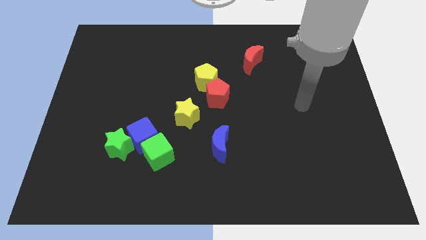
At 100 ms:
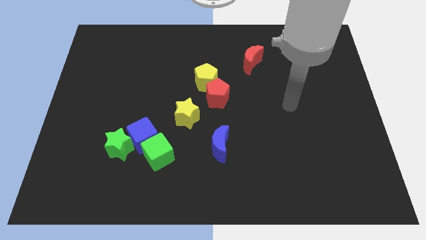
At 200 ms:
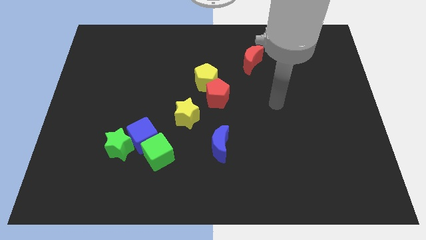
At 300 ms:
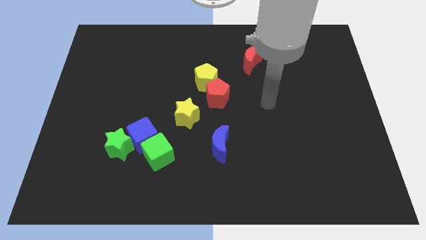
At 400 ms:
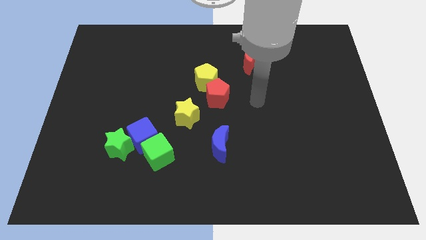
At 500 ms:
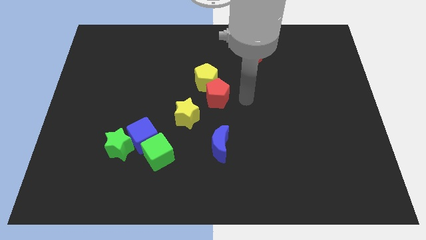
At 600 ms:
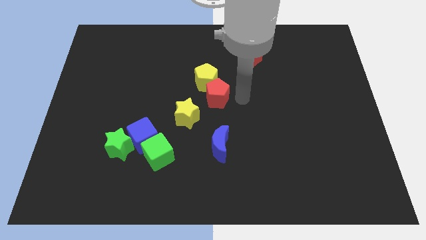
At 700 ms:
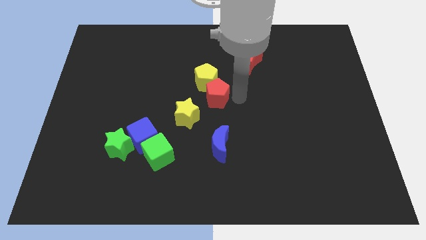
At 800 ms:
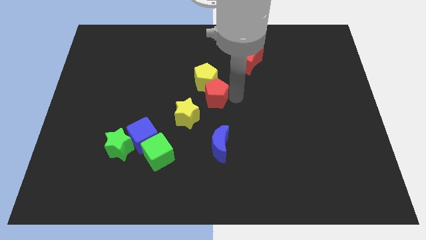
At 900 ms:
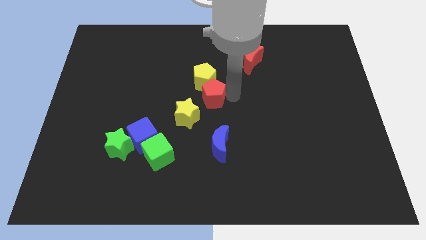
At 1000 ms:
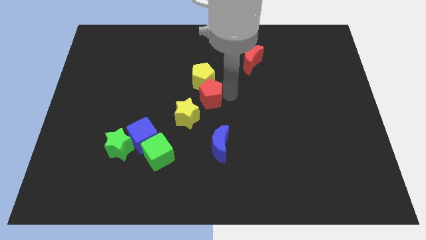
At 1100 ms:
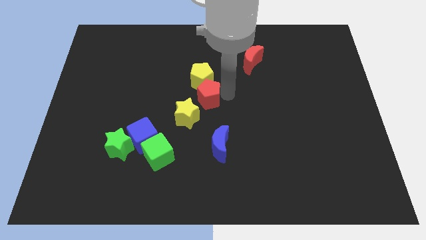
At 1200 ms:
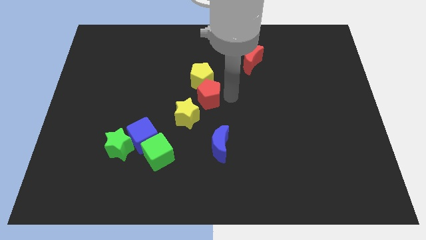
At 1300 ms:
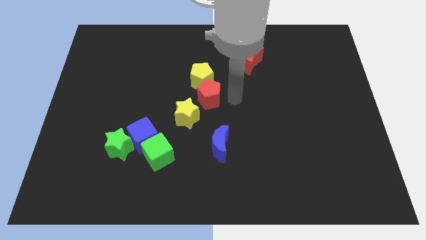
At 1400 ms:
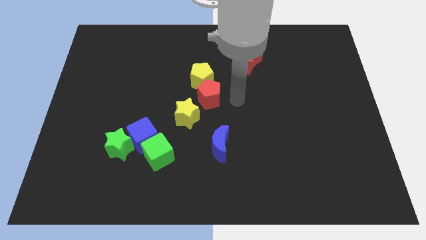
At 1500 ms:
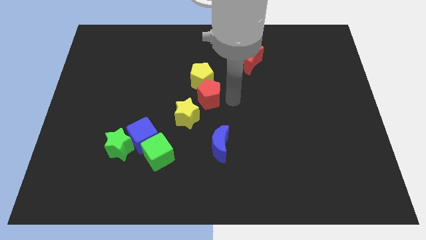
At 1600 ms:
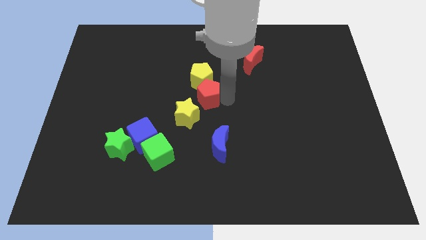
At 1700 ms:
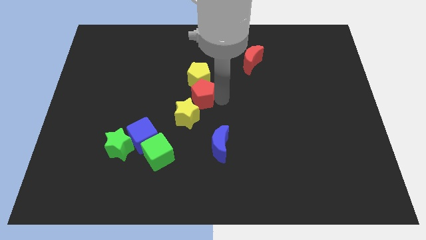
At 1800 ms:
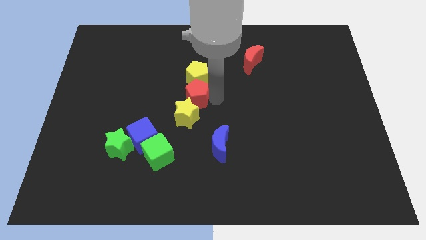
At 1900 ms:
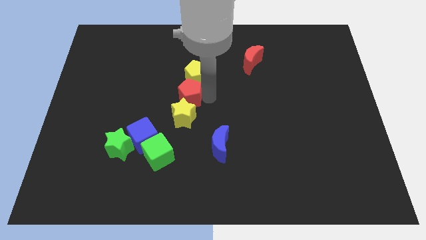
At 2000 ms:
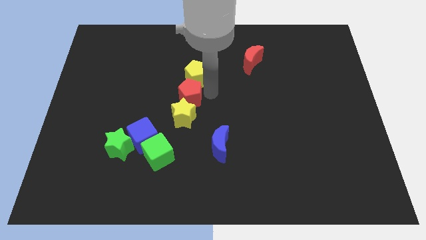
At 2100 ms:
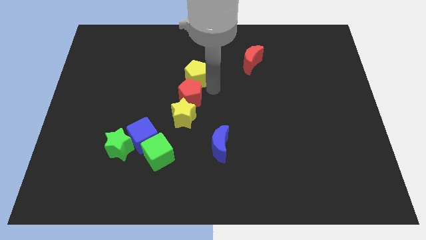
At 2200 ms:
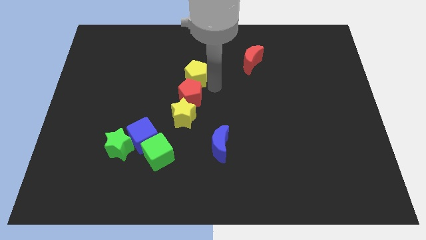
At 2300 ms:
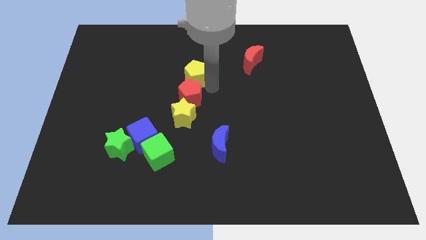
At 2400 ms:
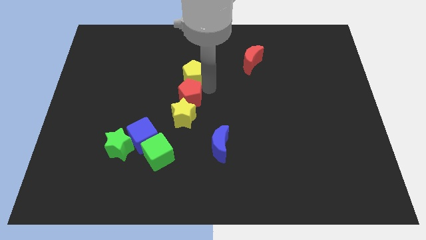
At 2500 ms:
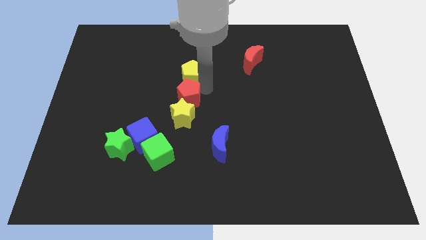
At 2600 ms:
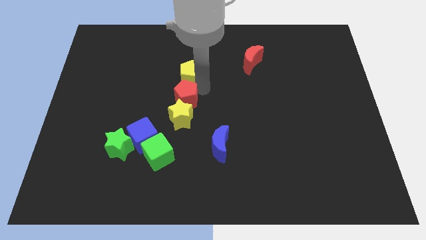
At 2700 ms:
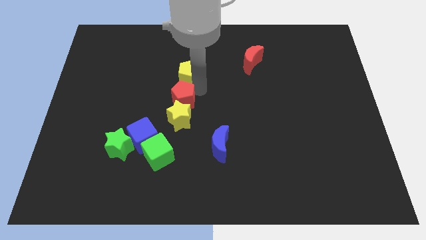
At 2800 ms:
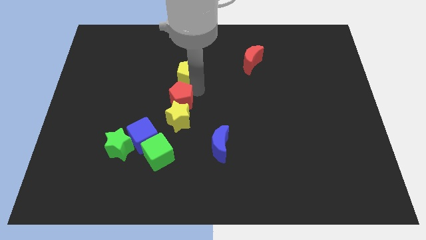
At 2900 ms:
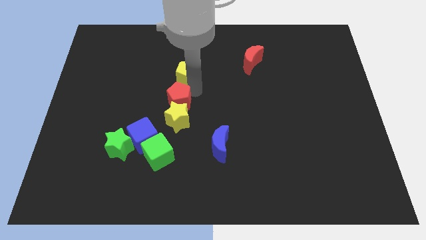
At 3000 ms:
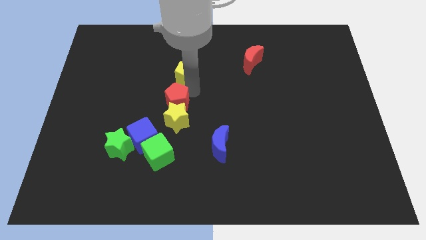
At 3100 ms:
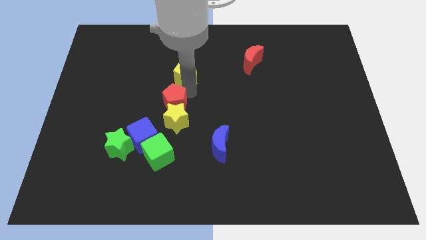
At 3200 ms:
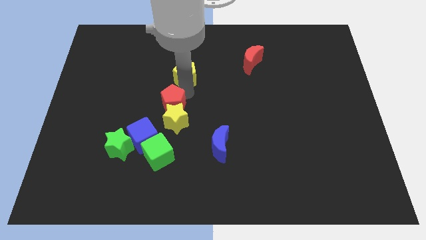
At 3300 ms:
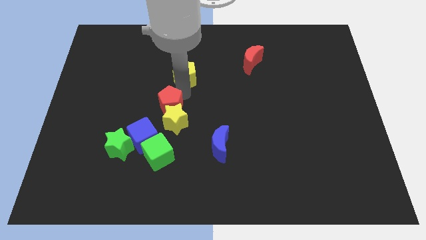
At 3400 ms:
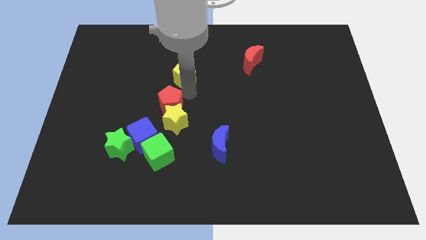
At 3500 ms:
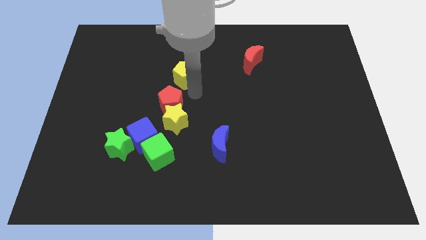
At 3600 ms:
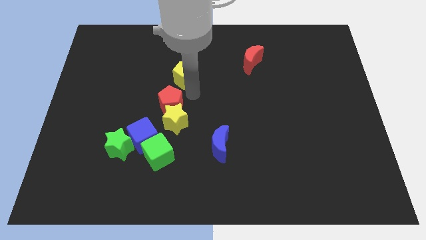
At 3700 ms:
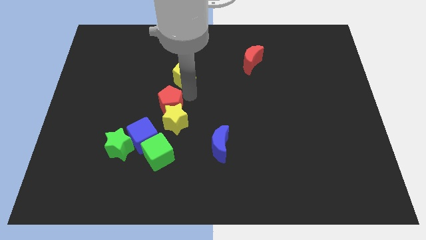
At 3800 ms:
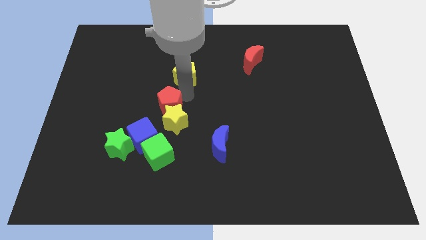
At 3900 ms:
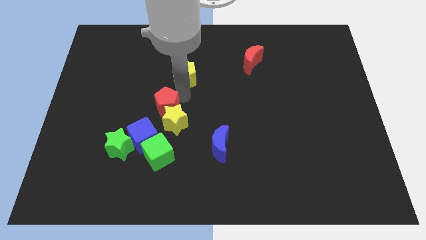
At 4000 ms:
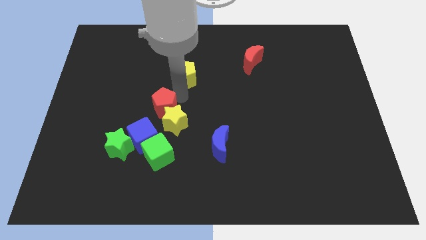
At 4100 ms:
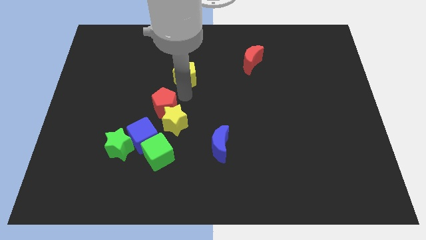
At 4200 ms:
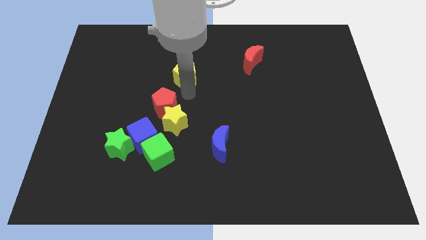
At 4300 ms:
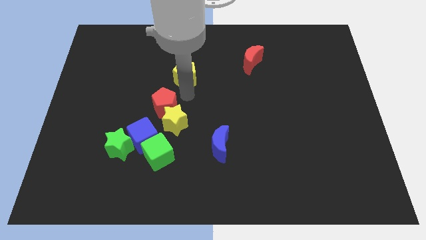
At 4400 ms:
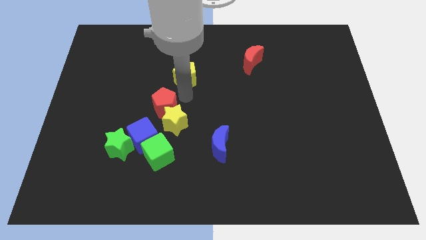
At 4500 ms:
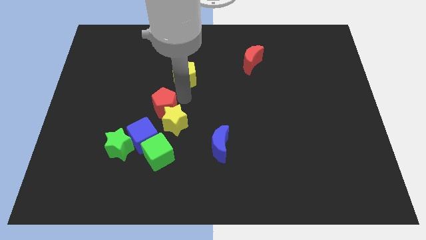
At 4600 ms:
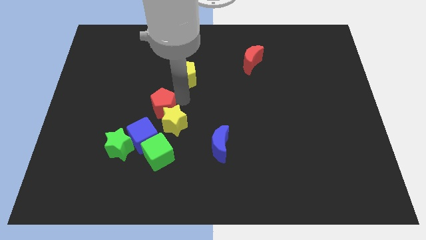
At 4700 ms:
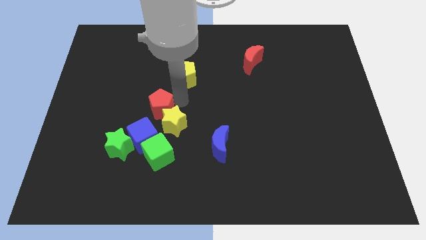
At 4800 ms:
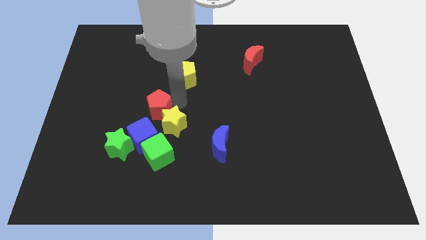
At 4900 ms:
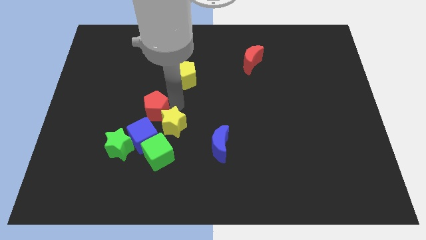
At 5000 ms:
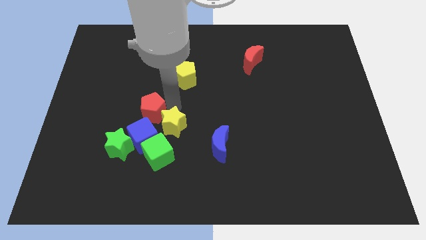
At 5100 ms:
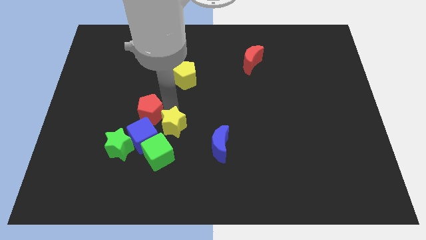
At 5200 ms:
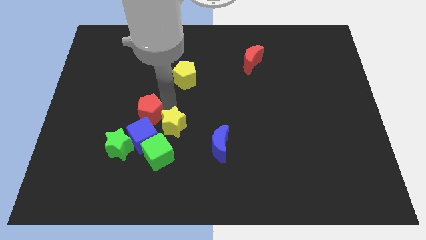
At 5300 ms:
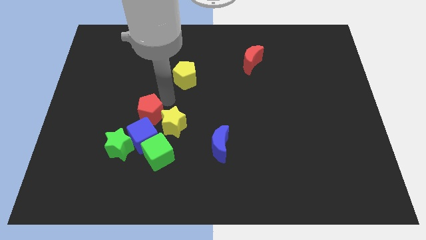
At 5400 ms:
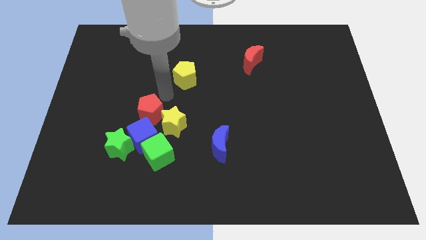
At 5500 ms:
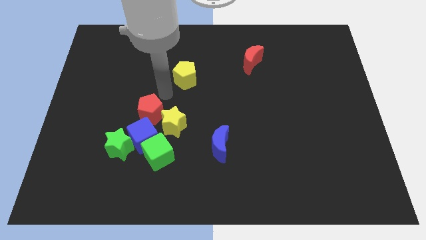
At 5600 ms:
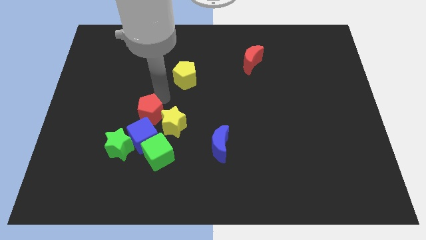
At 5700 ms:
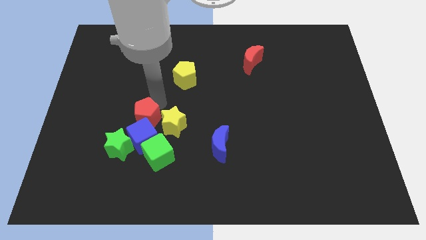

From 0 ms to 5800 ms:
slide the red pentagon to the top left of the green cube

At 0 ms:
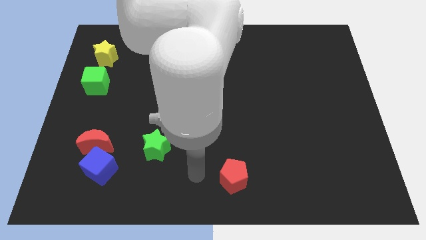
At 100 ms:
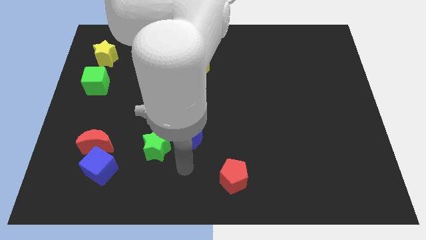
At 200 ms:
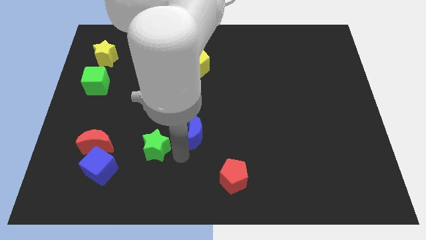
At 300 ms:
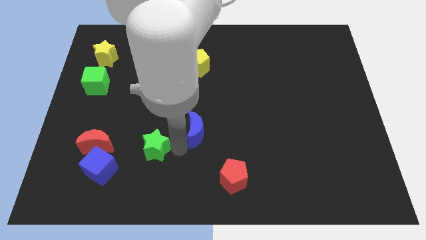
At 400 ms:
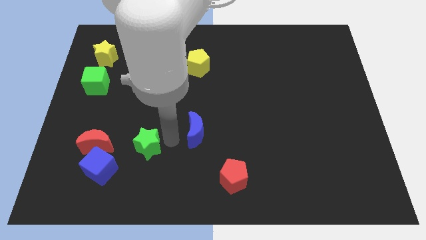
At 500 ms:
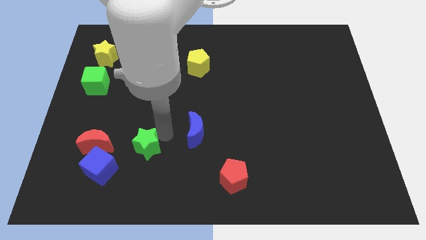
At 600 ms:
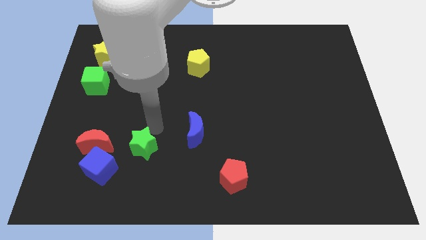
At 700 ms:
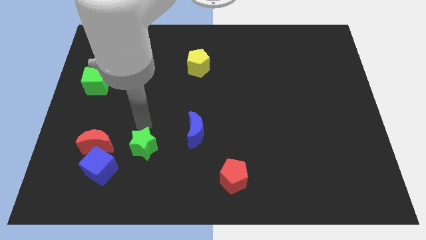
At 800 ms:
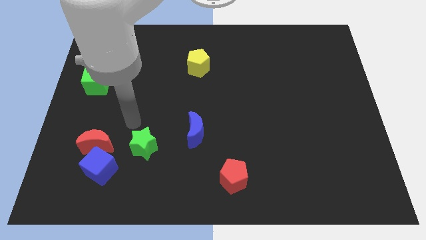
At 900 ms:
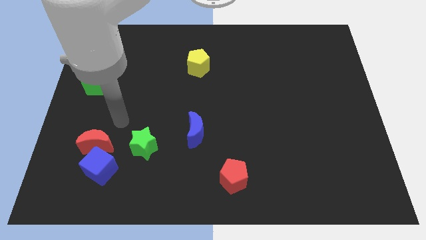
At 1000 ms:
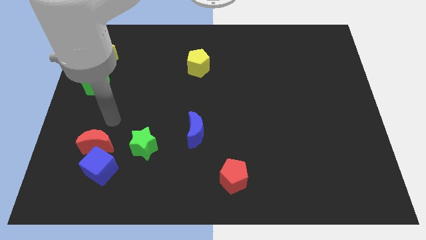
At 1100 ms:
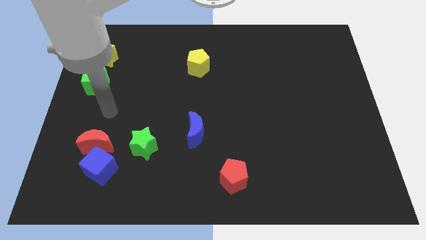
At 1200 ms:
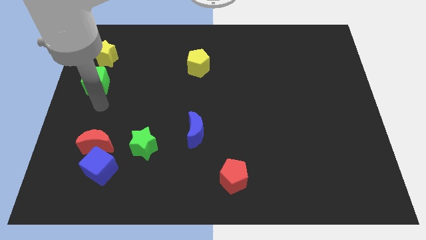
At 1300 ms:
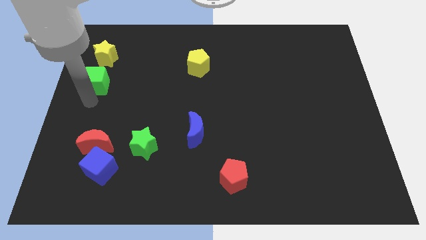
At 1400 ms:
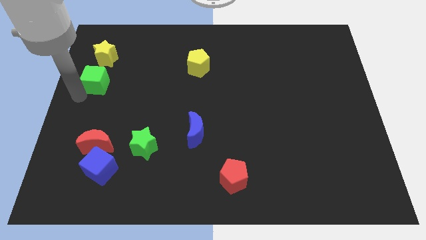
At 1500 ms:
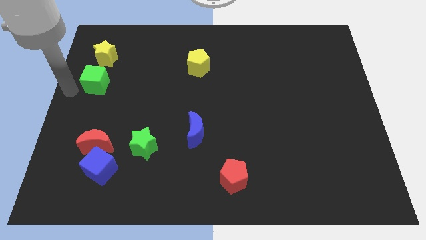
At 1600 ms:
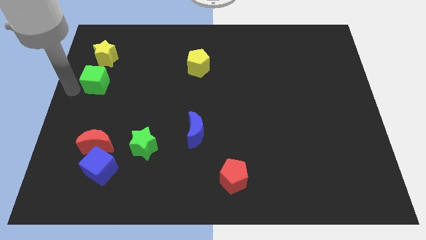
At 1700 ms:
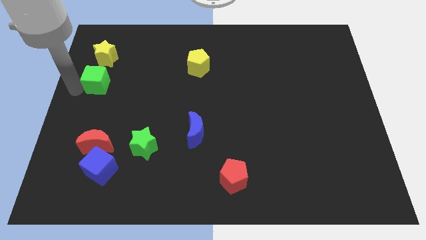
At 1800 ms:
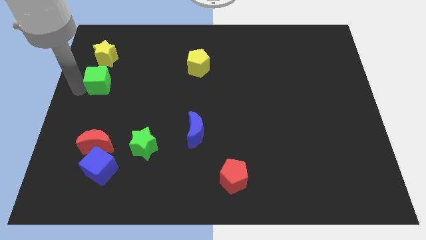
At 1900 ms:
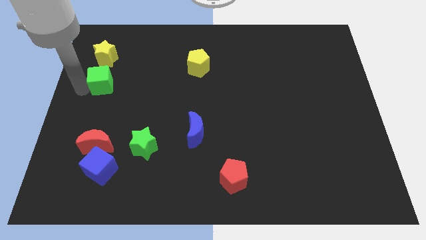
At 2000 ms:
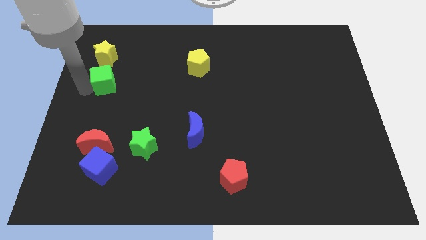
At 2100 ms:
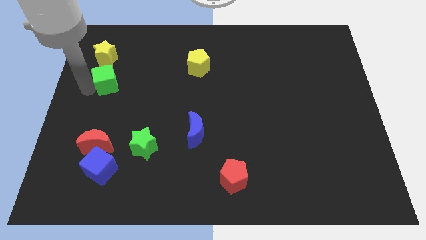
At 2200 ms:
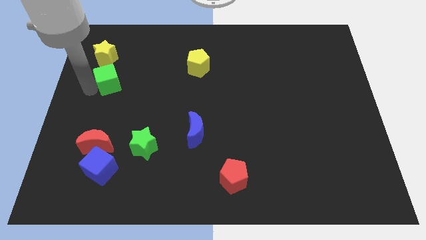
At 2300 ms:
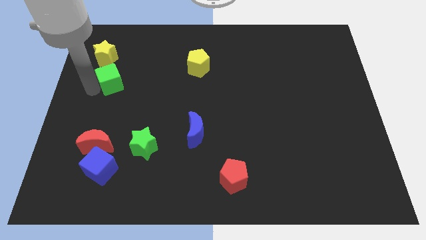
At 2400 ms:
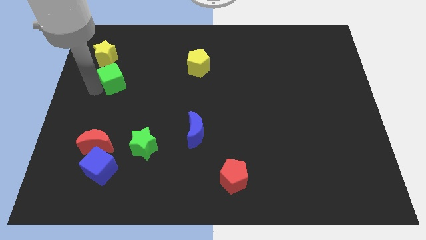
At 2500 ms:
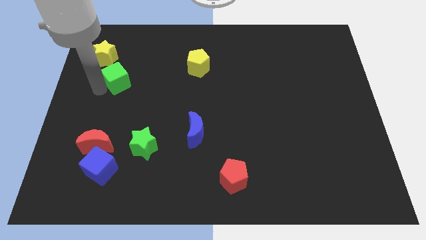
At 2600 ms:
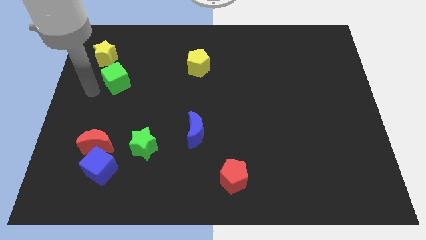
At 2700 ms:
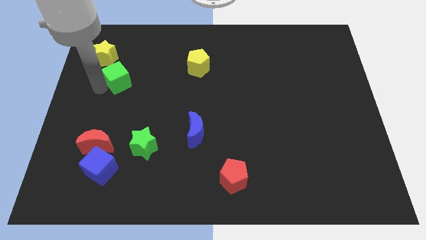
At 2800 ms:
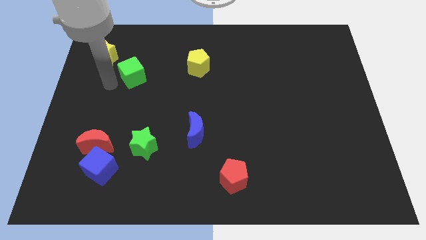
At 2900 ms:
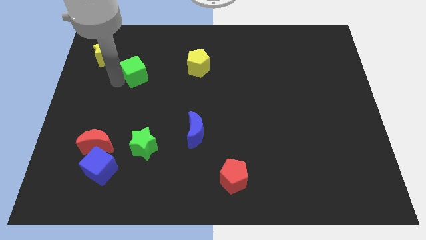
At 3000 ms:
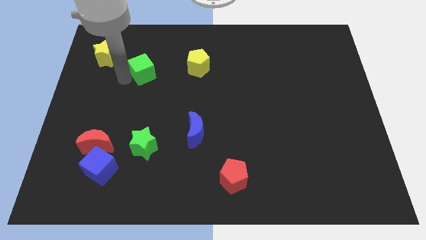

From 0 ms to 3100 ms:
push the green cube left of the yellow pentagon
